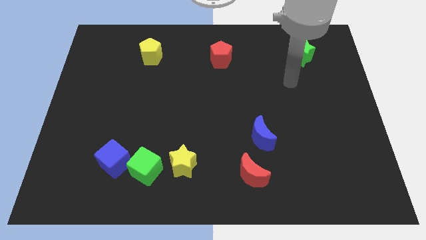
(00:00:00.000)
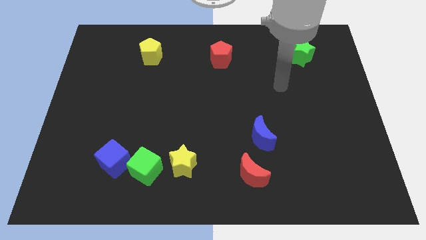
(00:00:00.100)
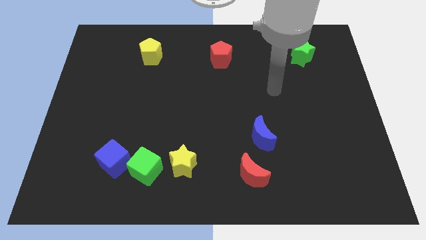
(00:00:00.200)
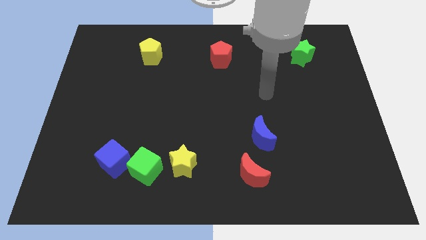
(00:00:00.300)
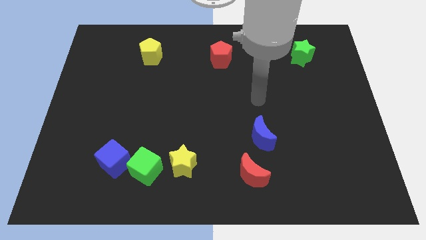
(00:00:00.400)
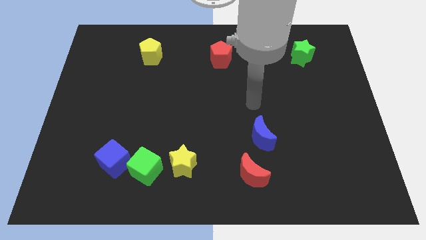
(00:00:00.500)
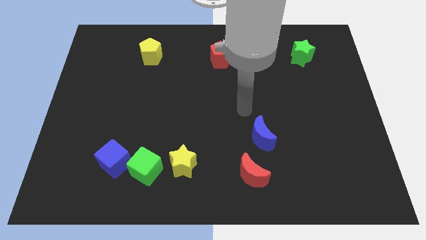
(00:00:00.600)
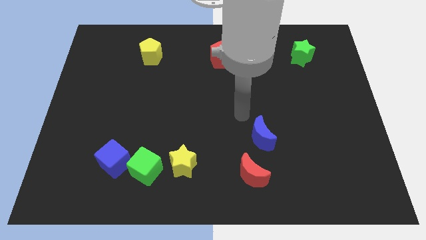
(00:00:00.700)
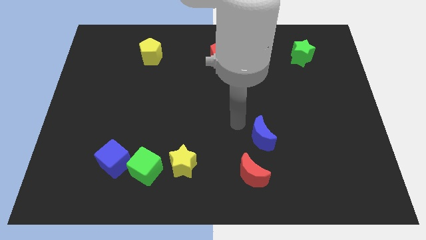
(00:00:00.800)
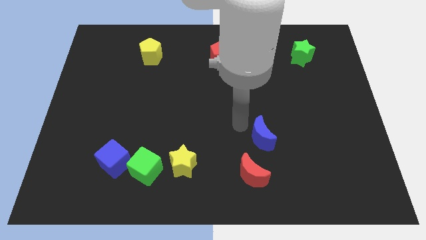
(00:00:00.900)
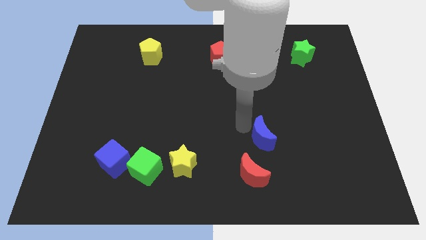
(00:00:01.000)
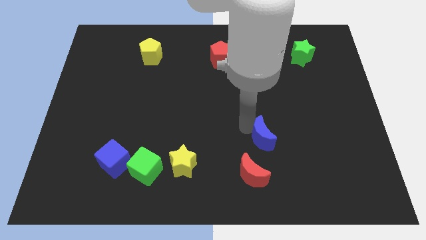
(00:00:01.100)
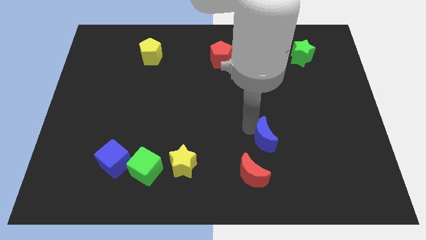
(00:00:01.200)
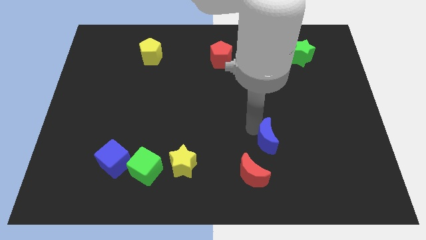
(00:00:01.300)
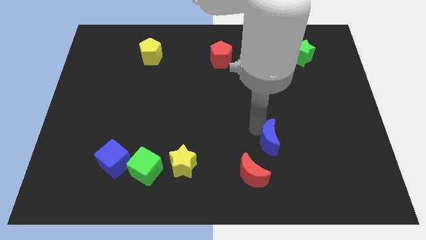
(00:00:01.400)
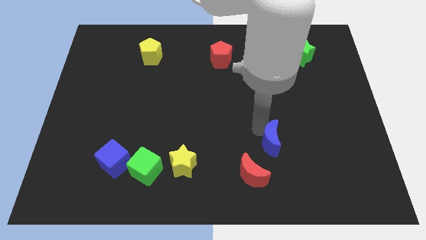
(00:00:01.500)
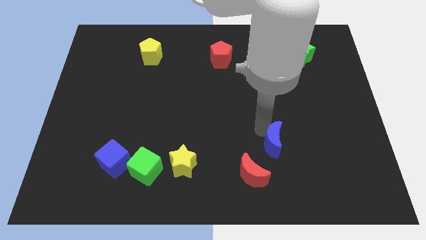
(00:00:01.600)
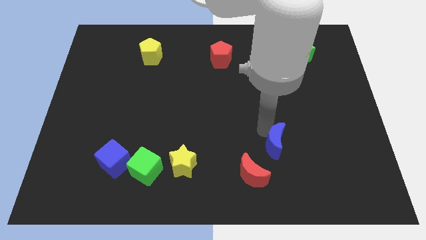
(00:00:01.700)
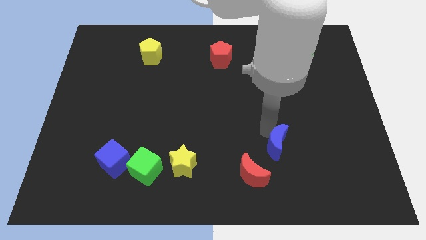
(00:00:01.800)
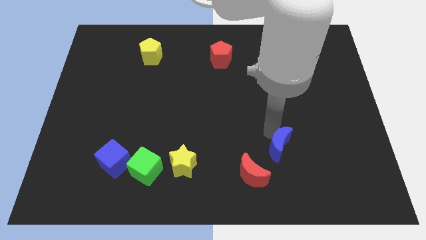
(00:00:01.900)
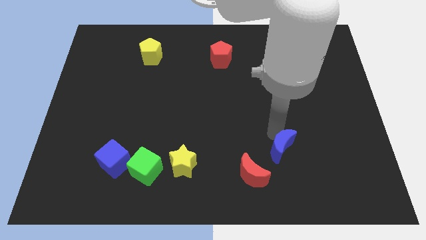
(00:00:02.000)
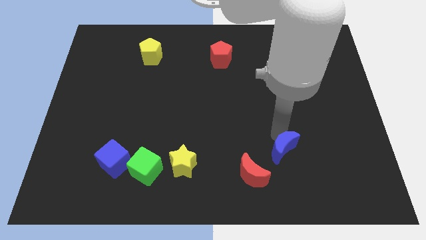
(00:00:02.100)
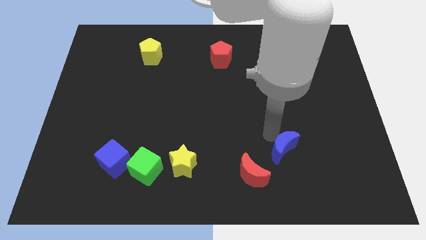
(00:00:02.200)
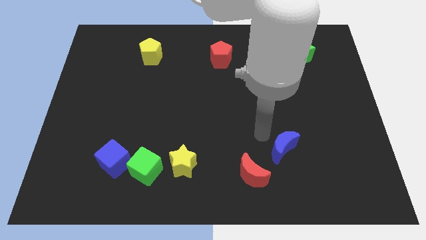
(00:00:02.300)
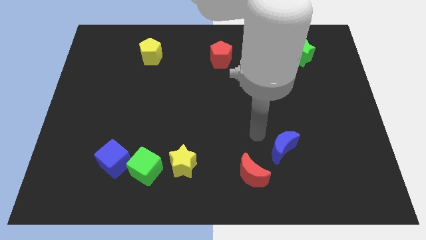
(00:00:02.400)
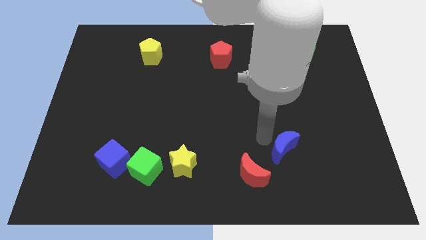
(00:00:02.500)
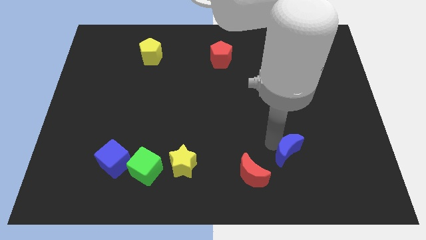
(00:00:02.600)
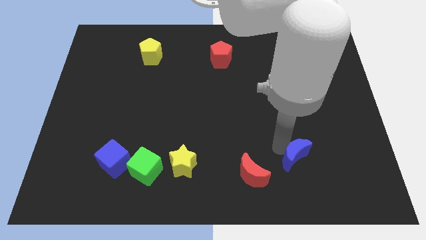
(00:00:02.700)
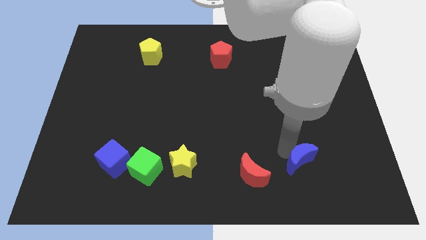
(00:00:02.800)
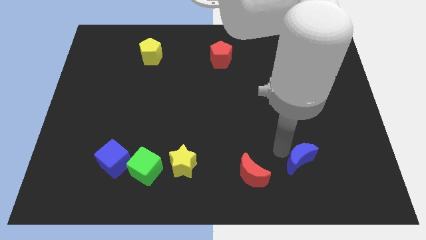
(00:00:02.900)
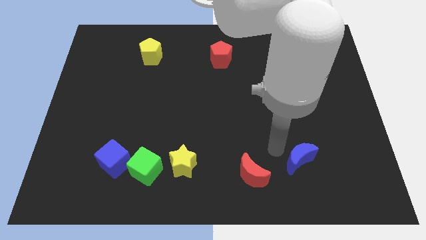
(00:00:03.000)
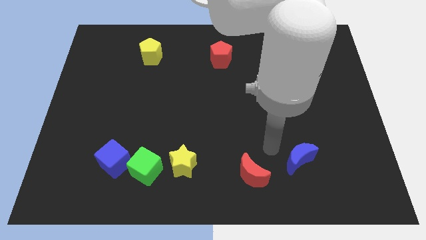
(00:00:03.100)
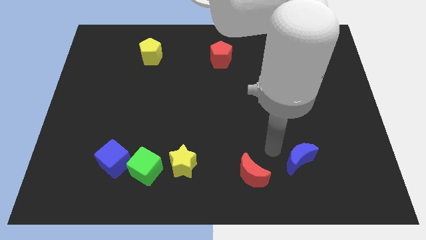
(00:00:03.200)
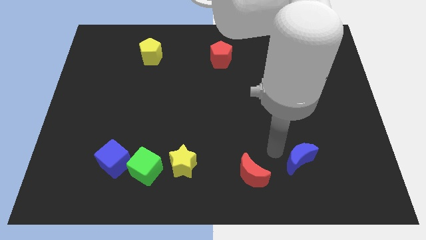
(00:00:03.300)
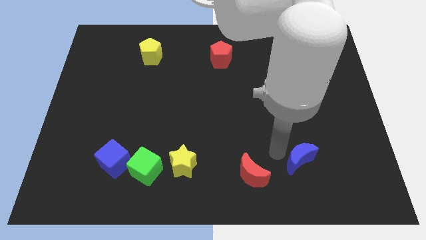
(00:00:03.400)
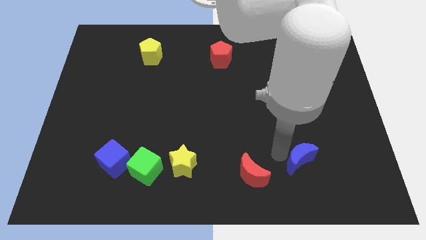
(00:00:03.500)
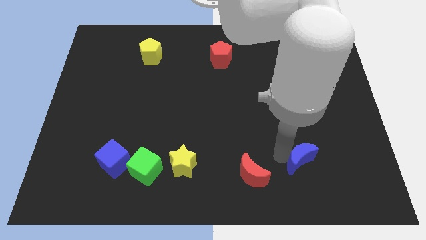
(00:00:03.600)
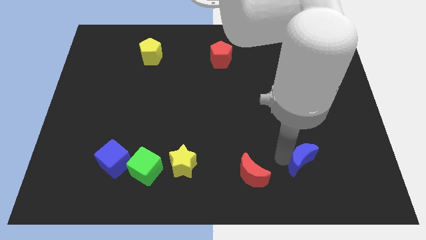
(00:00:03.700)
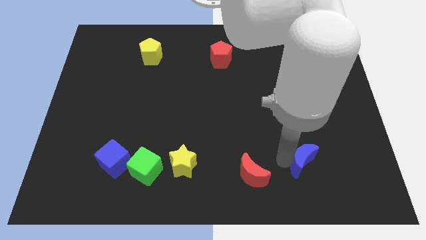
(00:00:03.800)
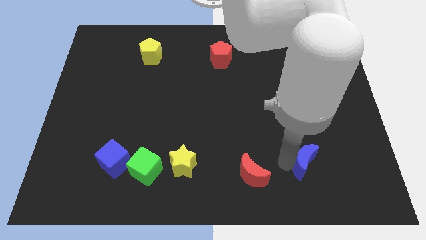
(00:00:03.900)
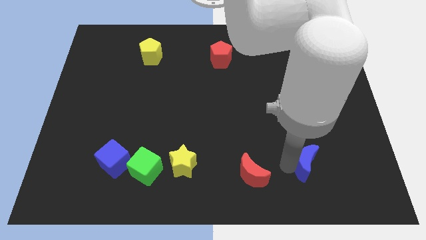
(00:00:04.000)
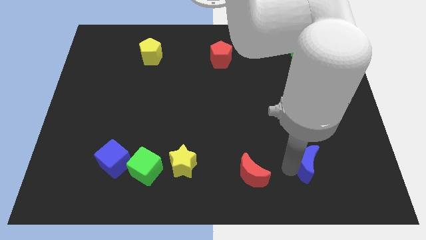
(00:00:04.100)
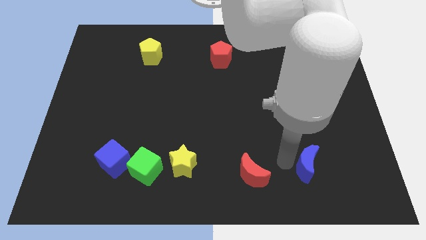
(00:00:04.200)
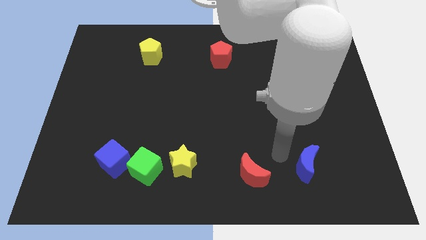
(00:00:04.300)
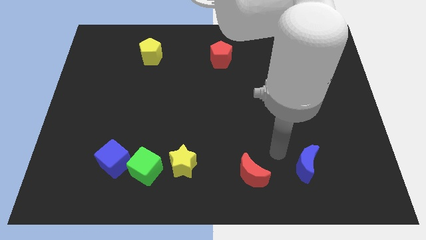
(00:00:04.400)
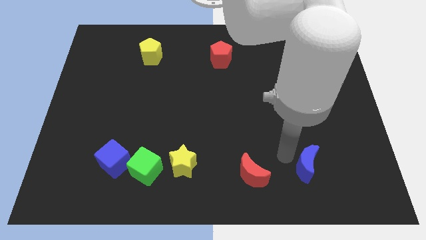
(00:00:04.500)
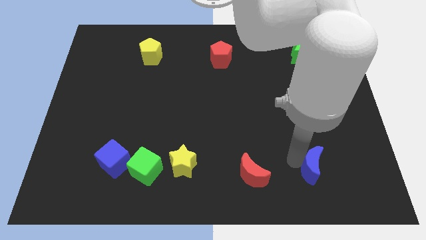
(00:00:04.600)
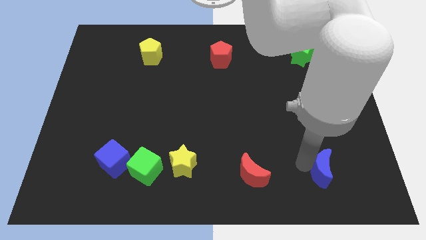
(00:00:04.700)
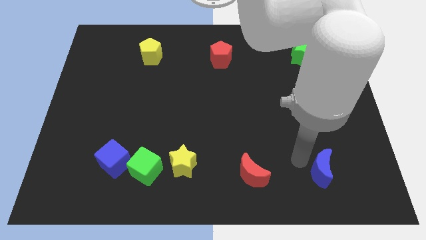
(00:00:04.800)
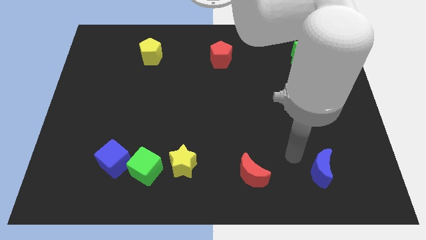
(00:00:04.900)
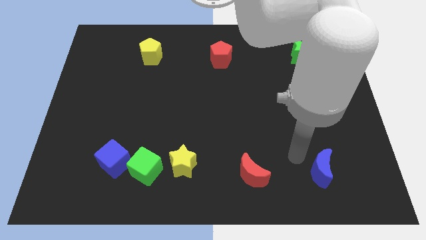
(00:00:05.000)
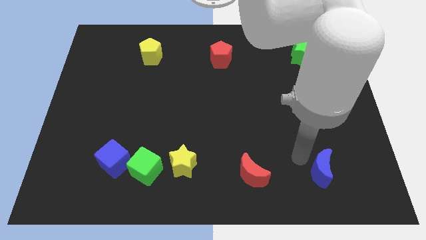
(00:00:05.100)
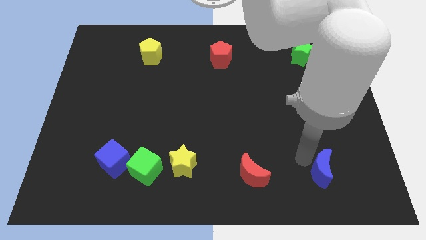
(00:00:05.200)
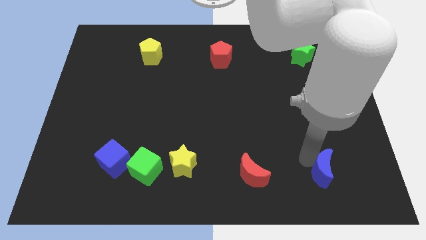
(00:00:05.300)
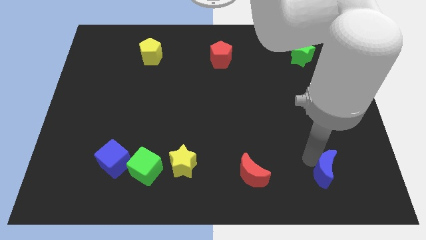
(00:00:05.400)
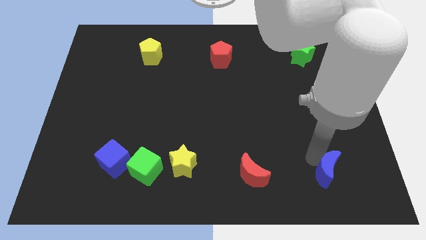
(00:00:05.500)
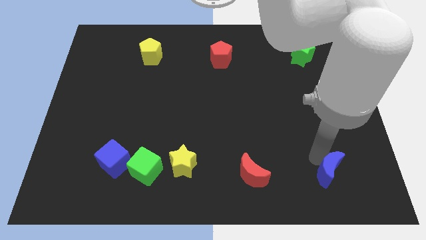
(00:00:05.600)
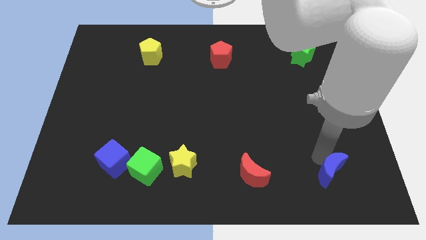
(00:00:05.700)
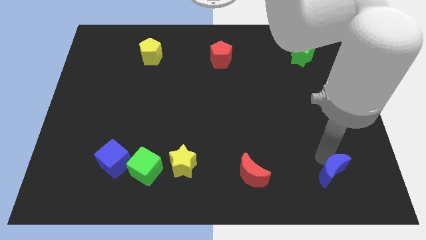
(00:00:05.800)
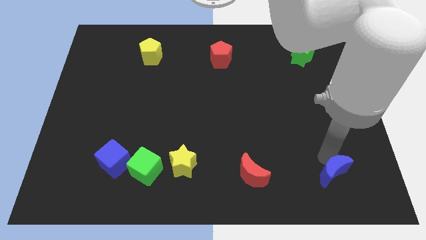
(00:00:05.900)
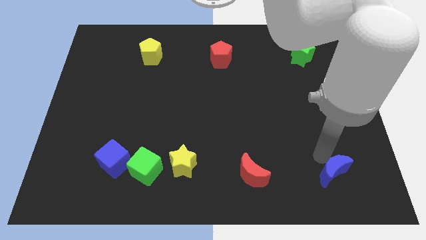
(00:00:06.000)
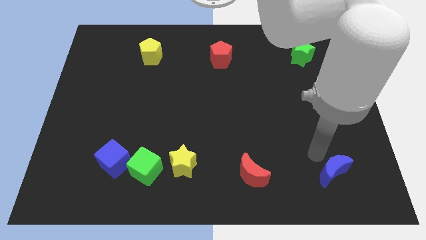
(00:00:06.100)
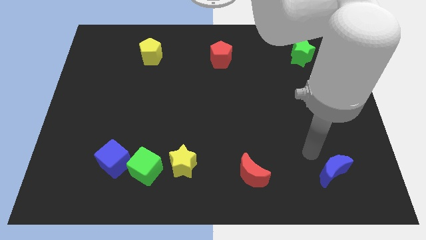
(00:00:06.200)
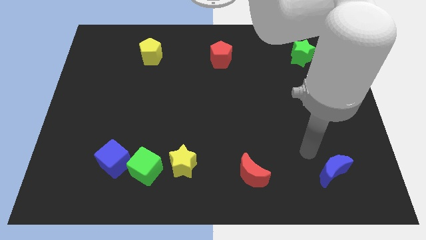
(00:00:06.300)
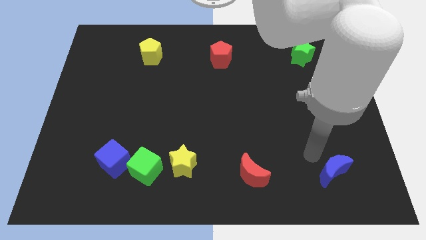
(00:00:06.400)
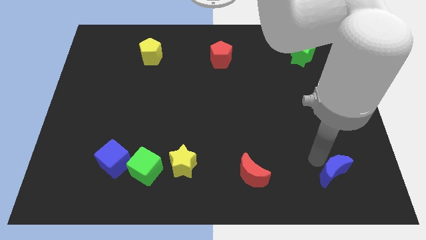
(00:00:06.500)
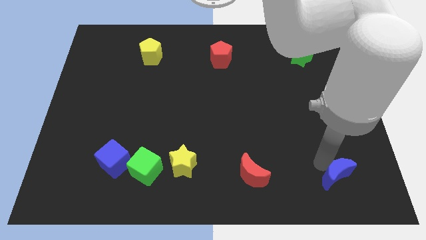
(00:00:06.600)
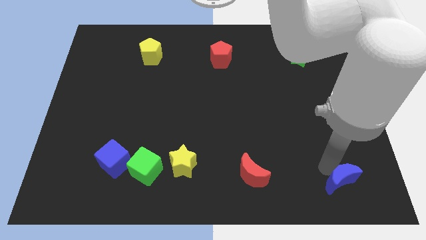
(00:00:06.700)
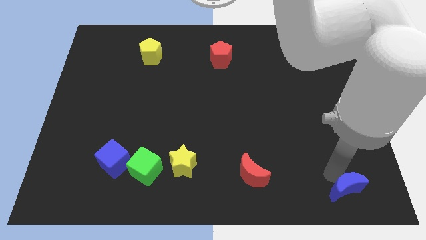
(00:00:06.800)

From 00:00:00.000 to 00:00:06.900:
push the blue moon to the bottom right
